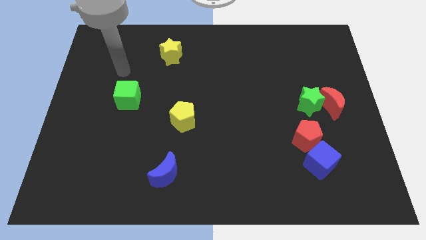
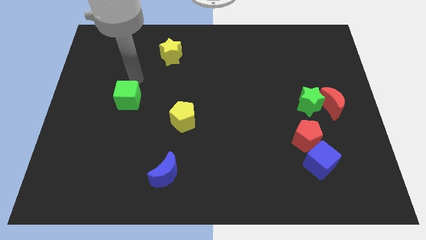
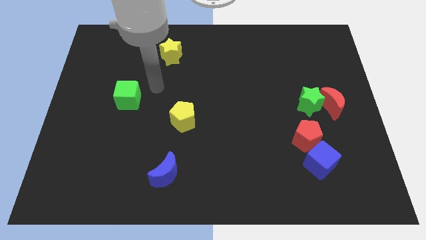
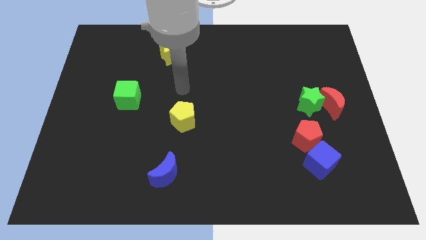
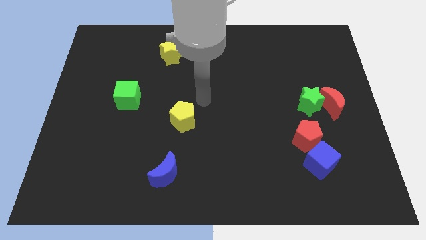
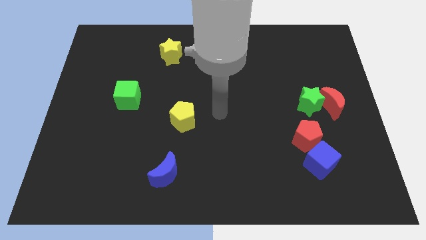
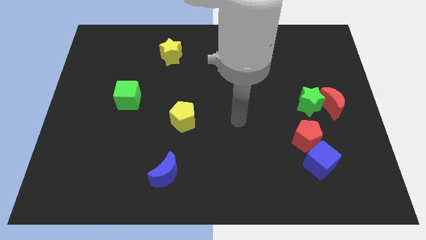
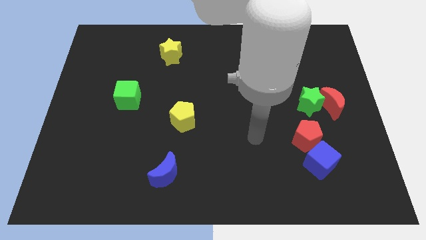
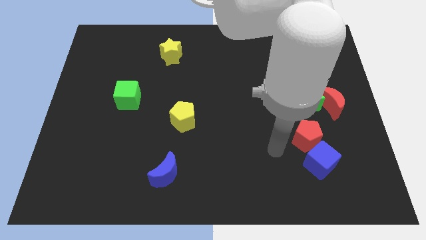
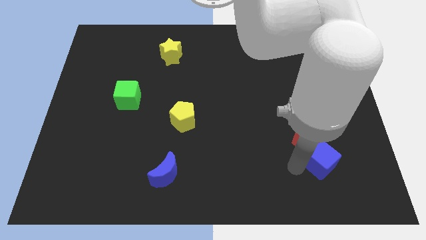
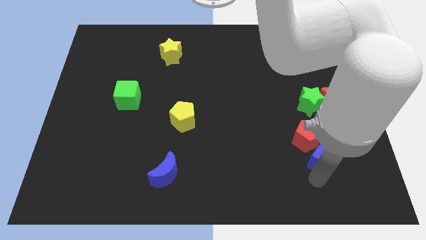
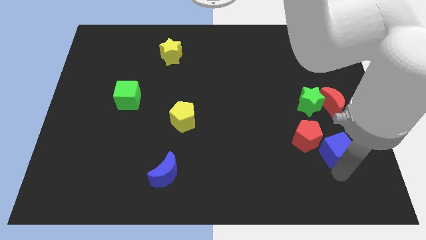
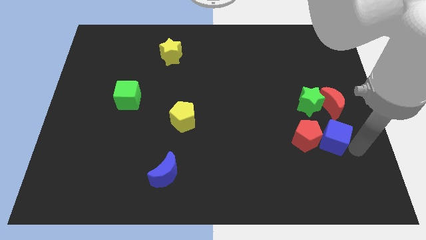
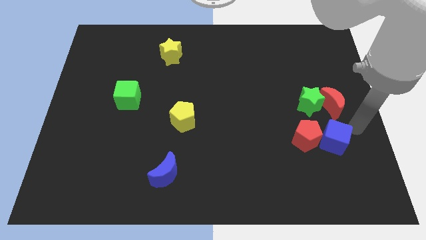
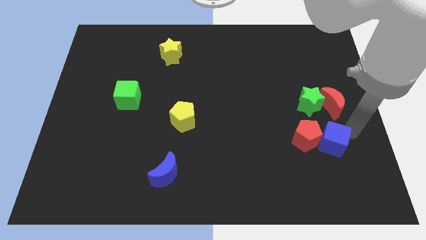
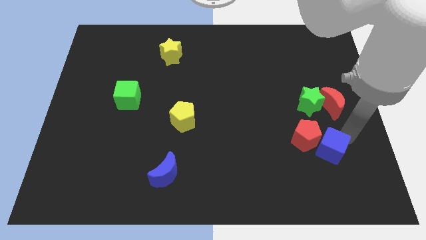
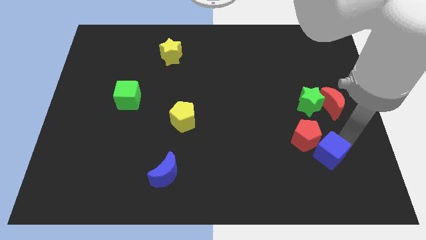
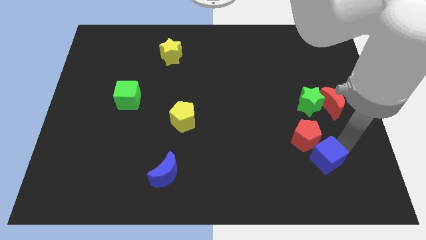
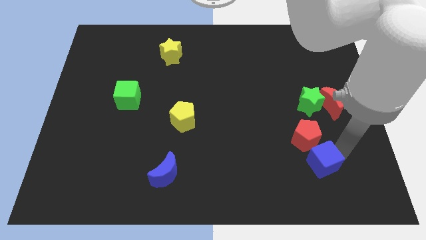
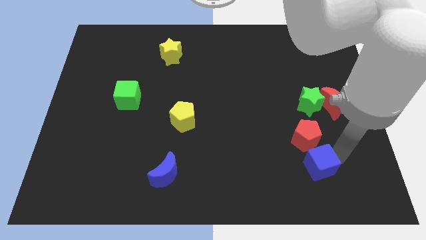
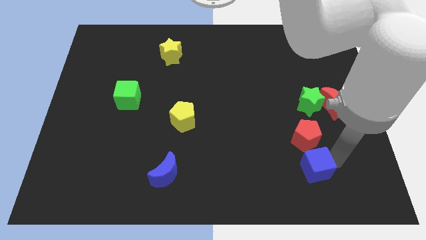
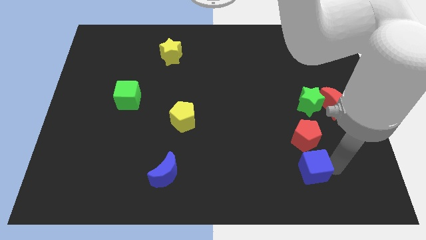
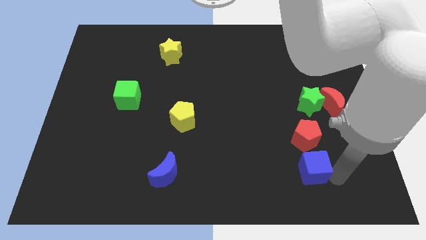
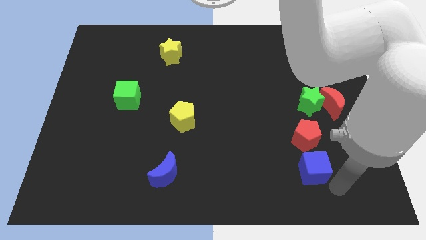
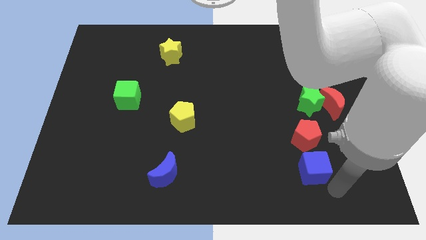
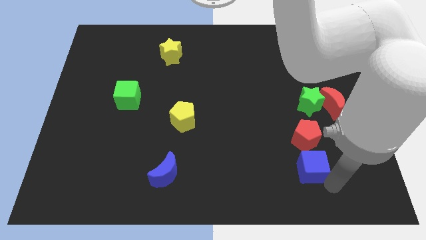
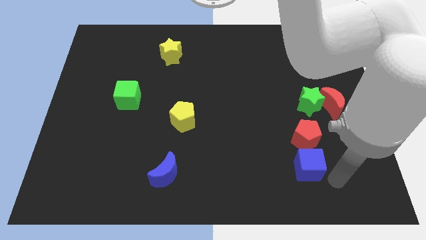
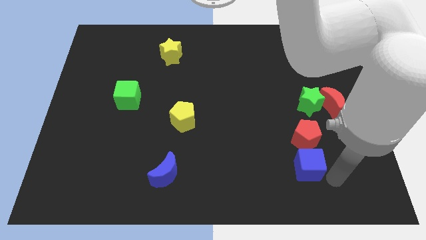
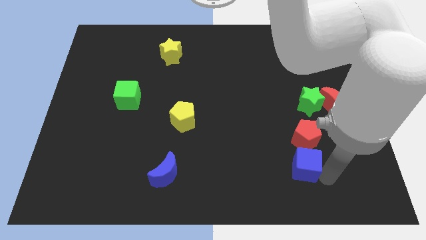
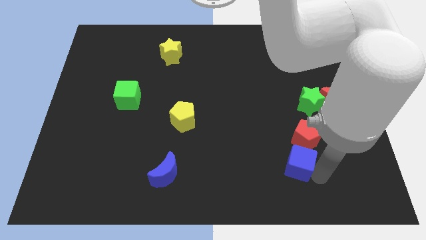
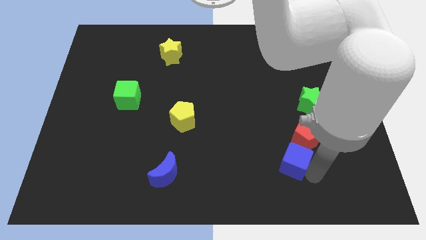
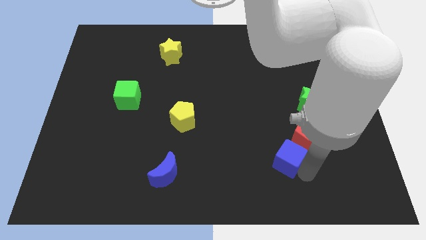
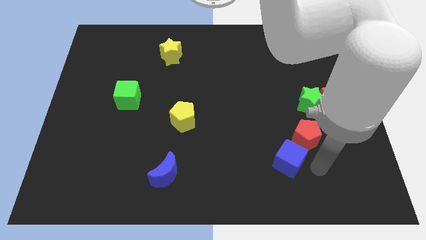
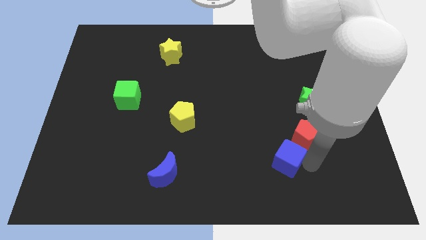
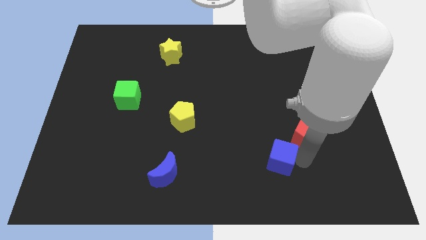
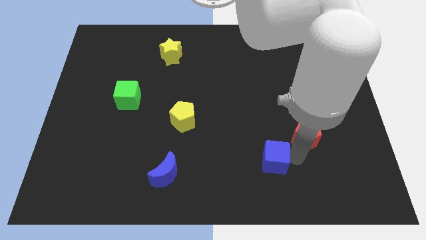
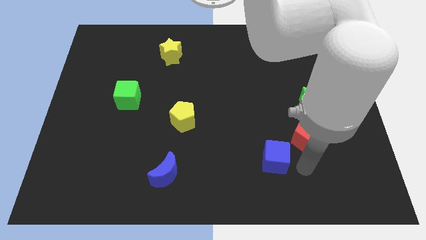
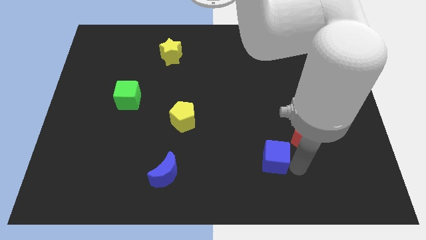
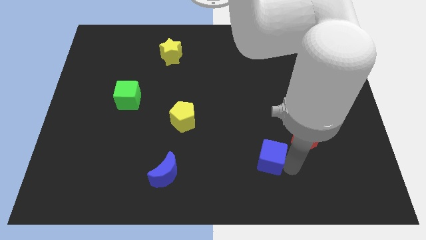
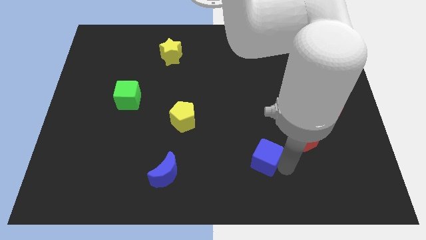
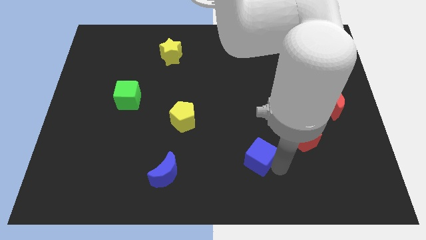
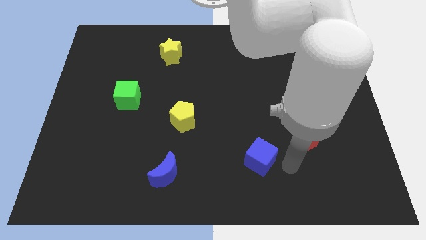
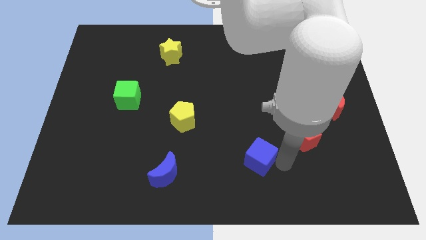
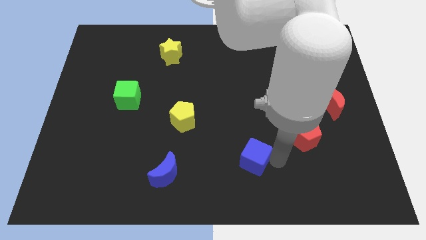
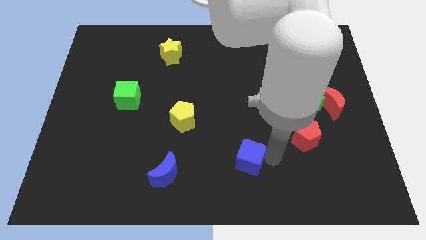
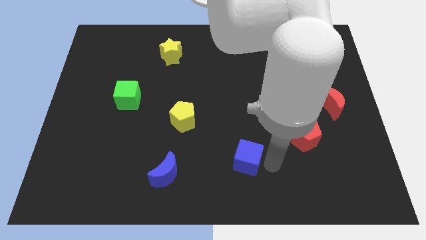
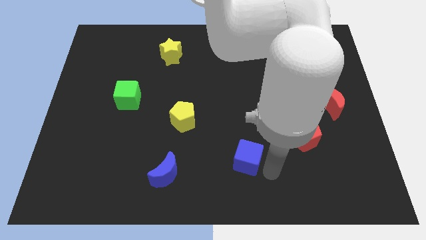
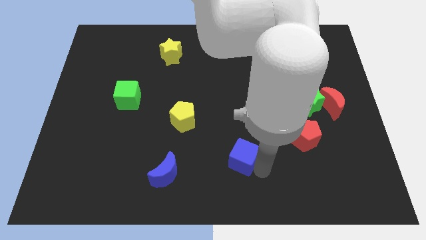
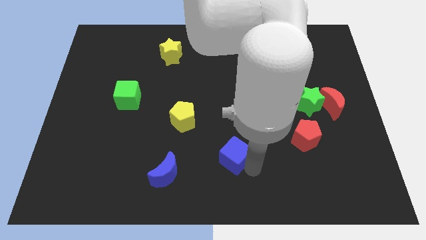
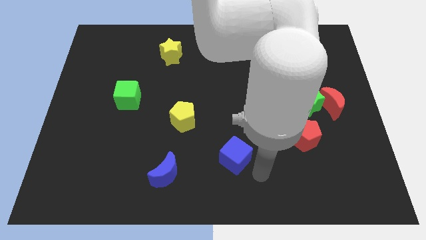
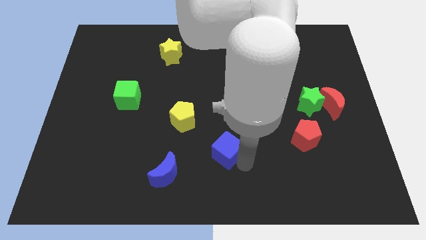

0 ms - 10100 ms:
push the blue cube to the bottom right of the yellow pentagon

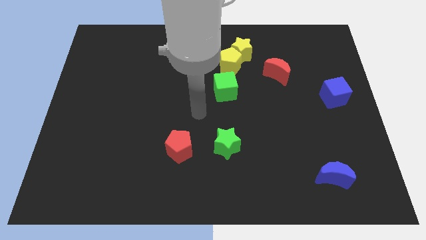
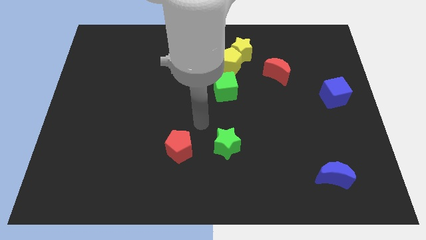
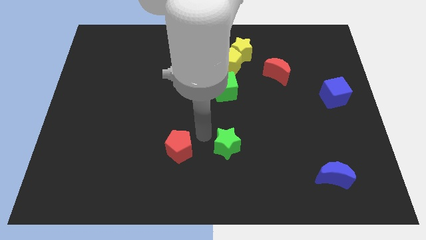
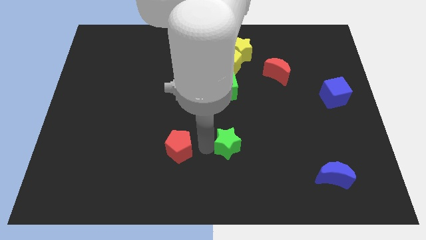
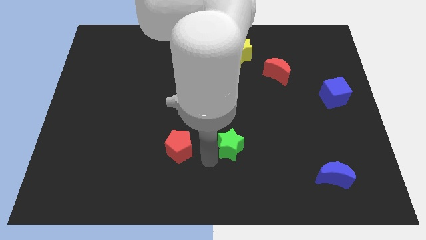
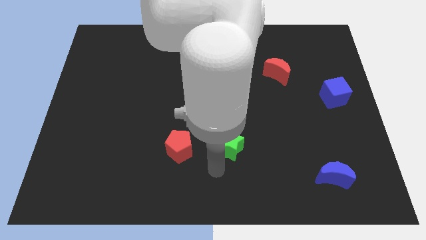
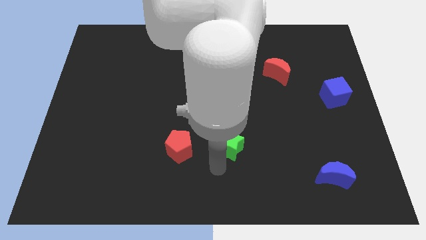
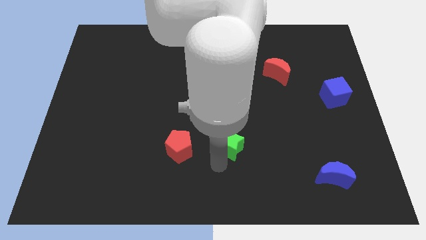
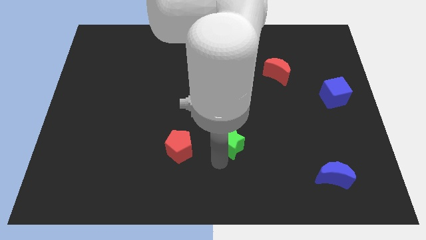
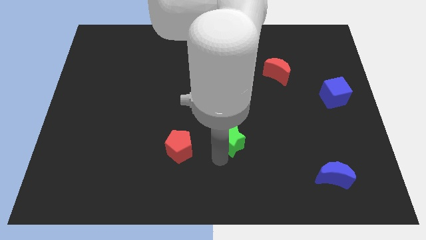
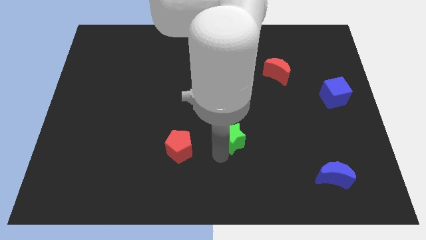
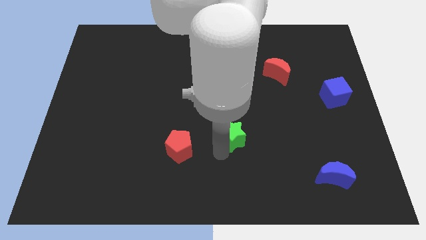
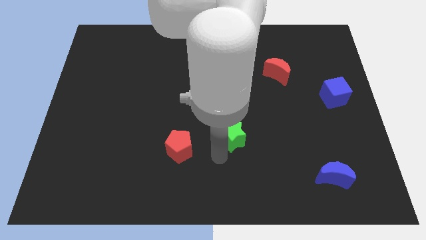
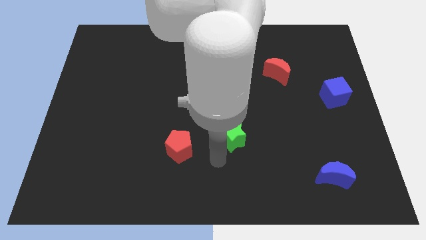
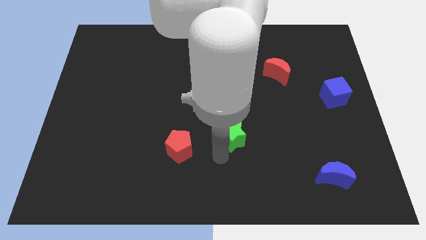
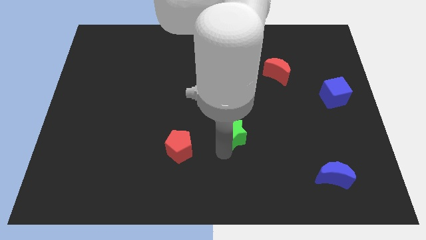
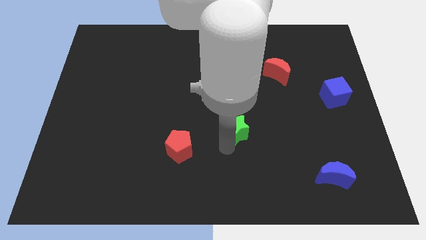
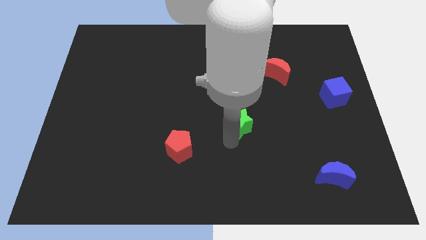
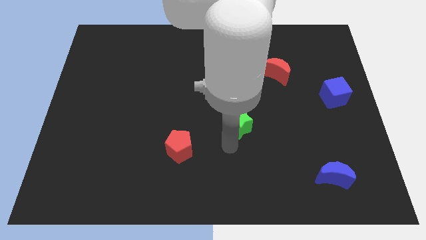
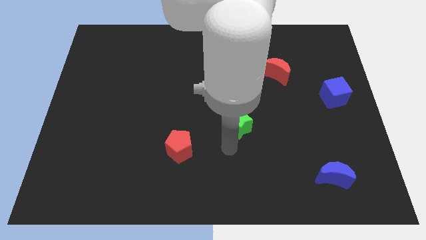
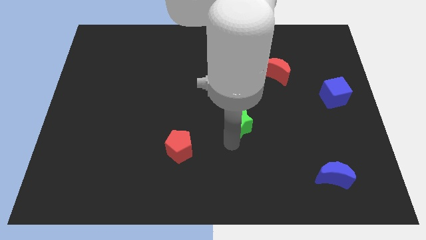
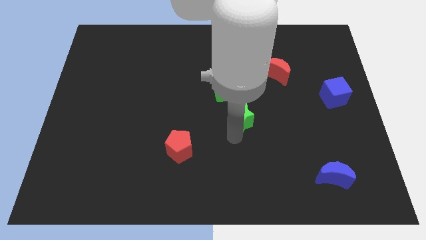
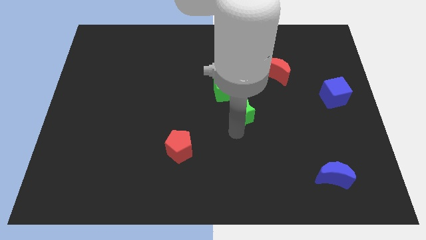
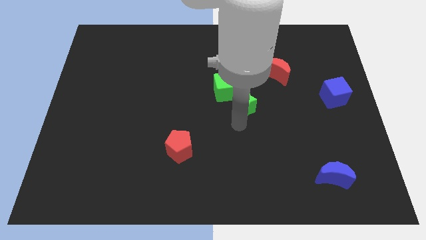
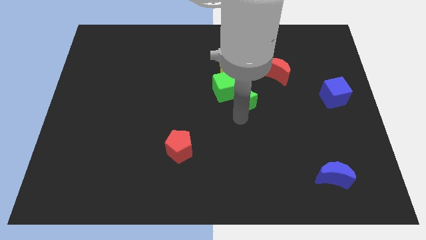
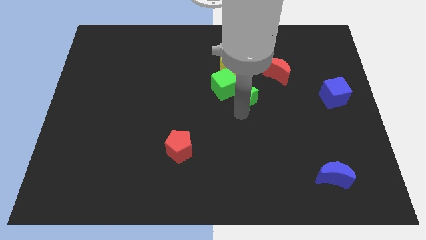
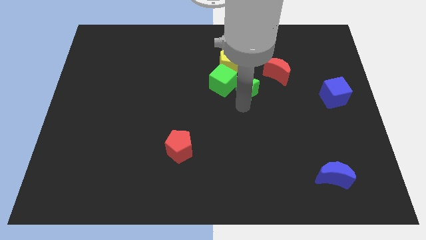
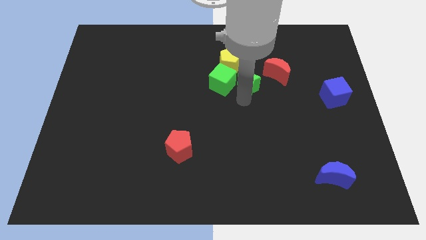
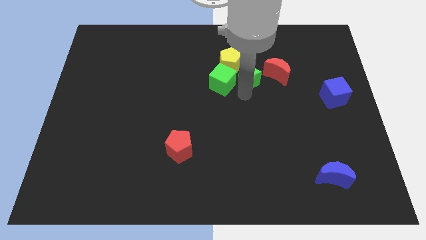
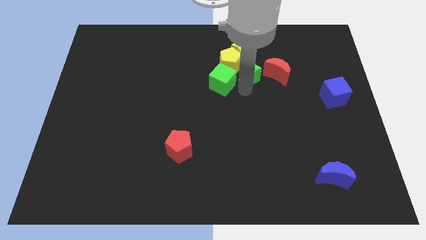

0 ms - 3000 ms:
move the green star to the bottom right side of the yellow star
